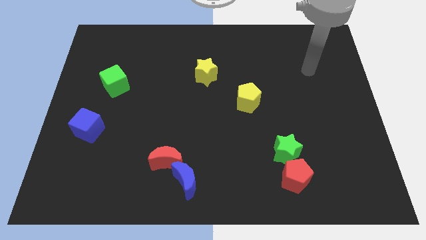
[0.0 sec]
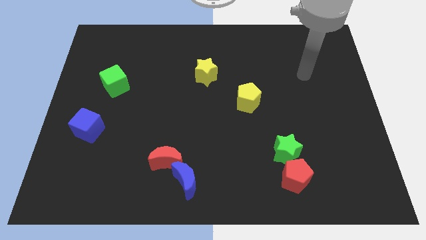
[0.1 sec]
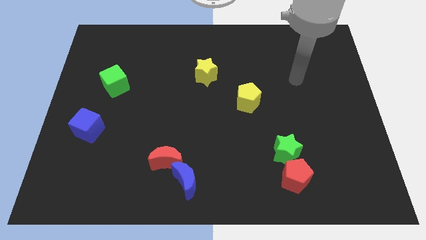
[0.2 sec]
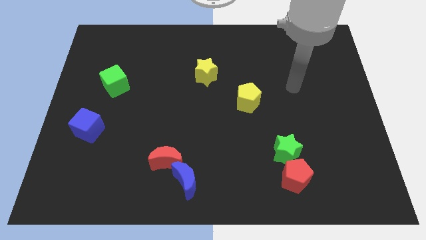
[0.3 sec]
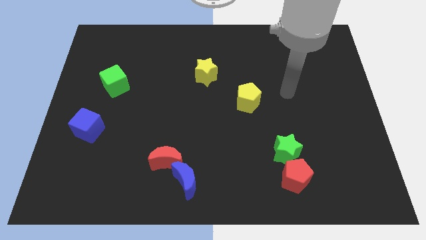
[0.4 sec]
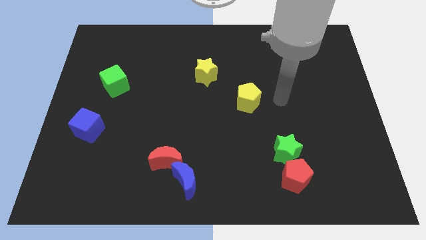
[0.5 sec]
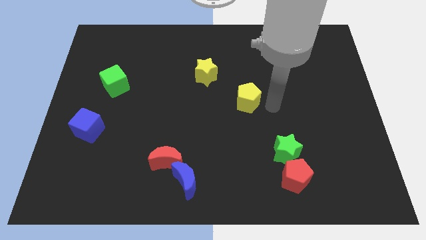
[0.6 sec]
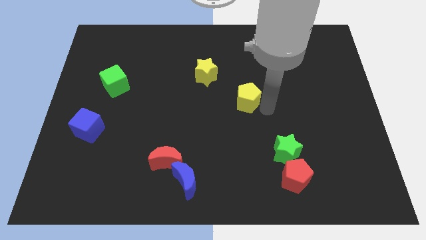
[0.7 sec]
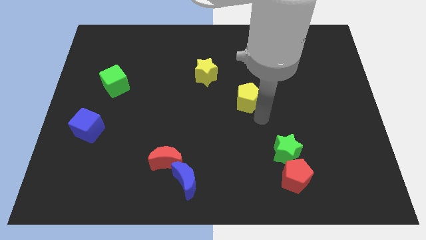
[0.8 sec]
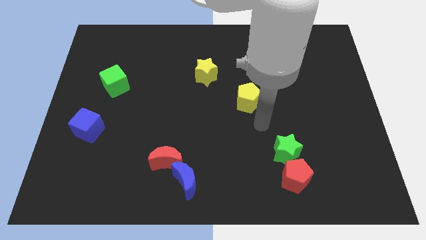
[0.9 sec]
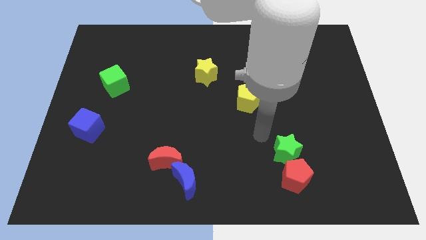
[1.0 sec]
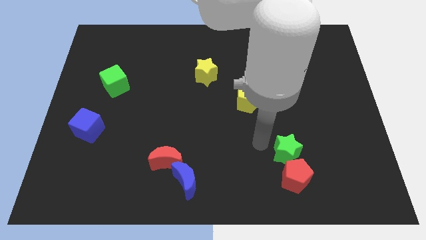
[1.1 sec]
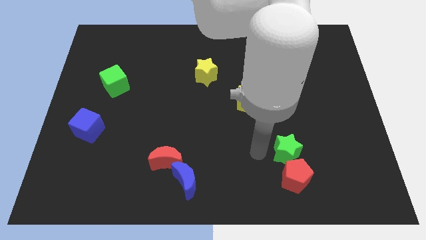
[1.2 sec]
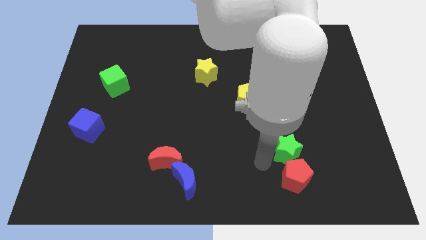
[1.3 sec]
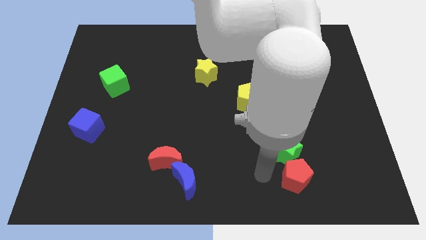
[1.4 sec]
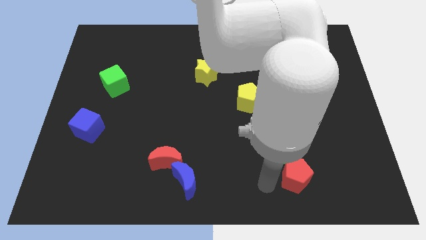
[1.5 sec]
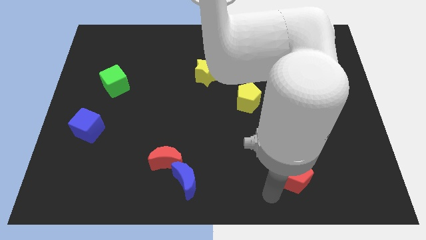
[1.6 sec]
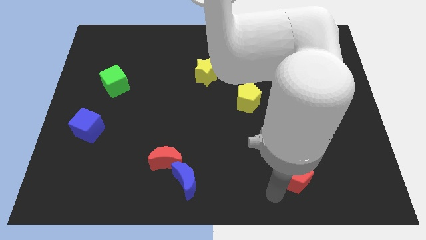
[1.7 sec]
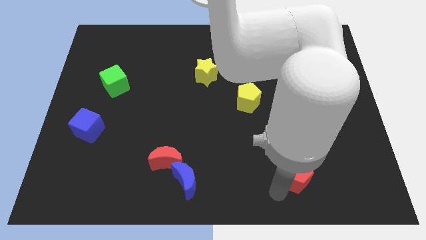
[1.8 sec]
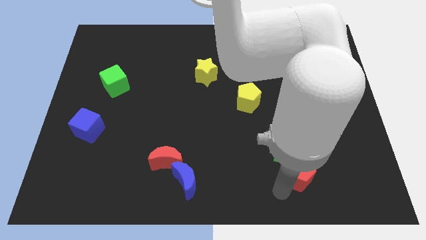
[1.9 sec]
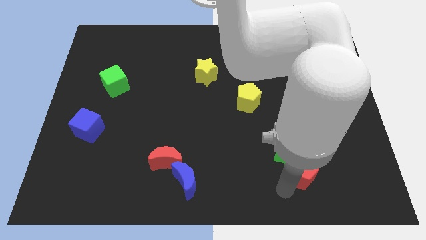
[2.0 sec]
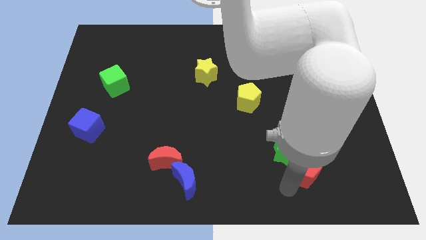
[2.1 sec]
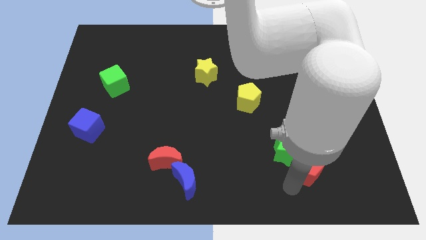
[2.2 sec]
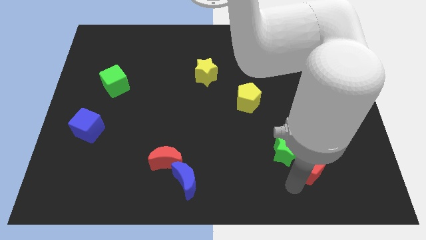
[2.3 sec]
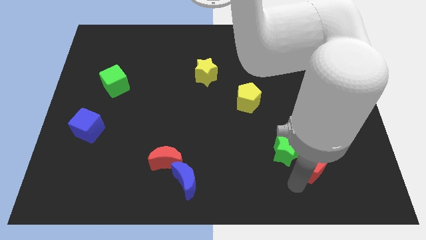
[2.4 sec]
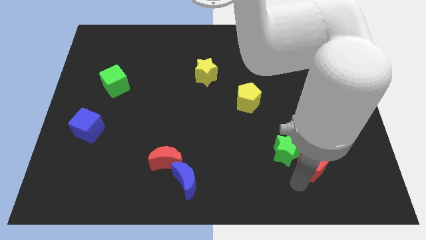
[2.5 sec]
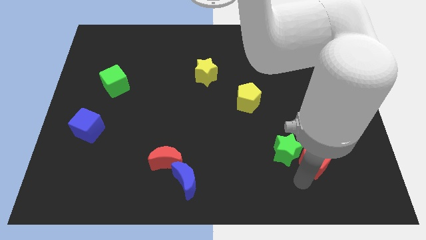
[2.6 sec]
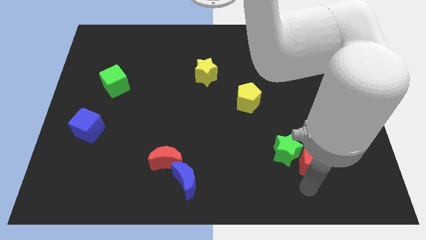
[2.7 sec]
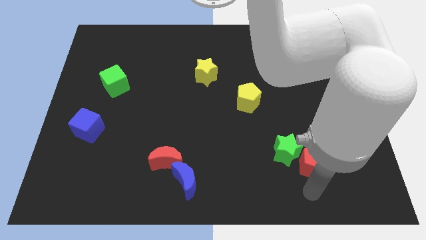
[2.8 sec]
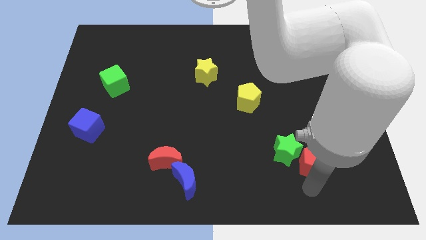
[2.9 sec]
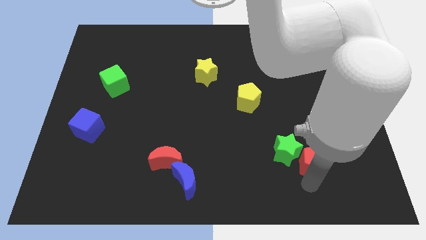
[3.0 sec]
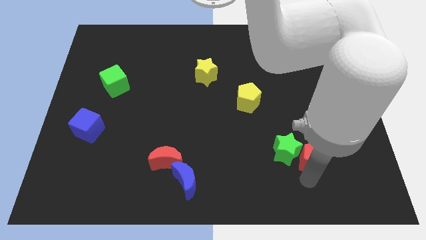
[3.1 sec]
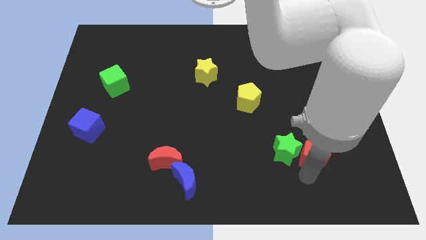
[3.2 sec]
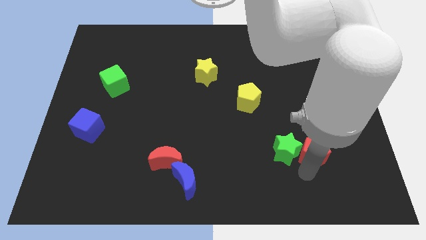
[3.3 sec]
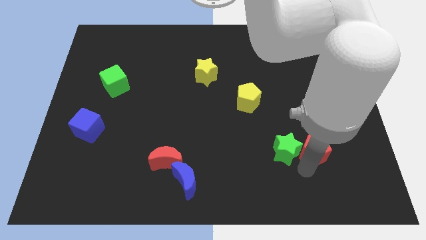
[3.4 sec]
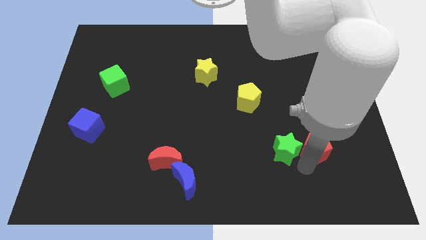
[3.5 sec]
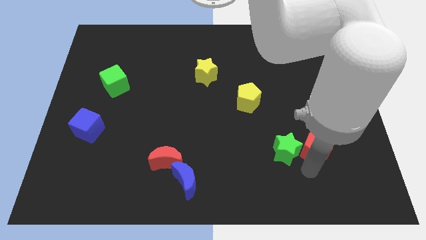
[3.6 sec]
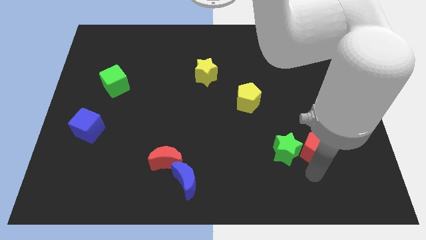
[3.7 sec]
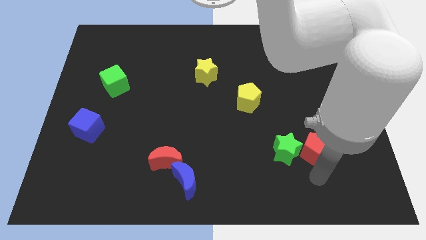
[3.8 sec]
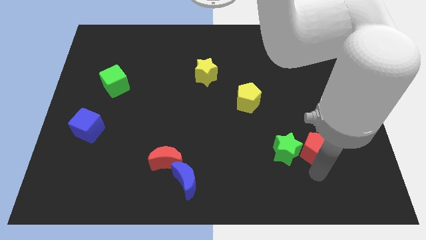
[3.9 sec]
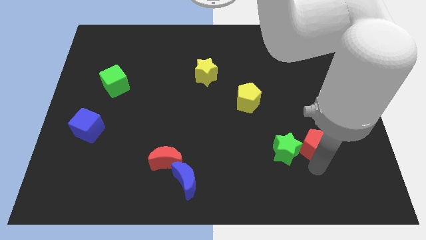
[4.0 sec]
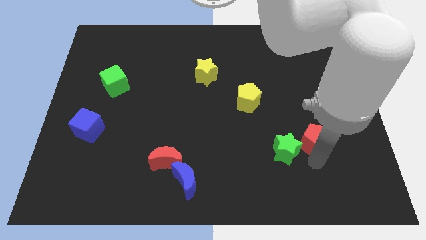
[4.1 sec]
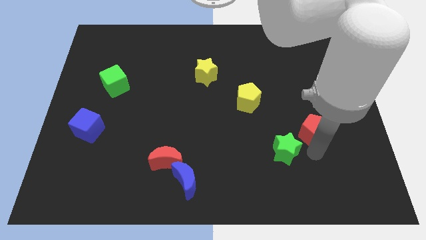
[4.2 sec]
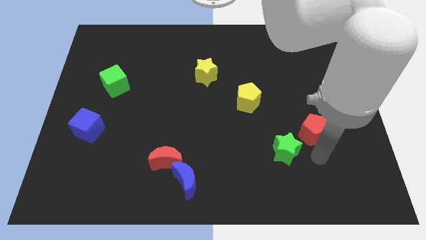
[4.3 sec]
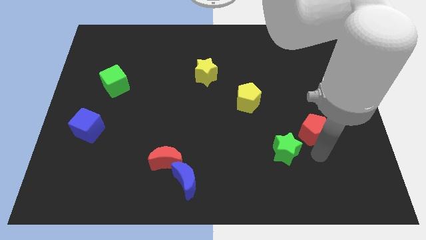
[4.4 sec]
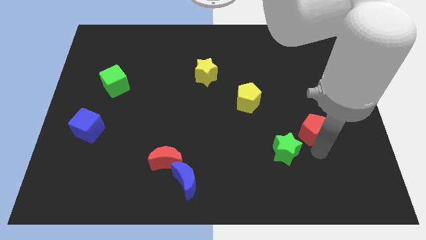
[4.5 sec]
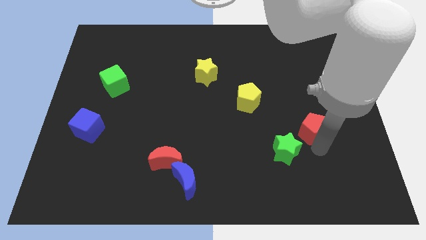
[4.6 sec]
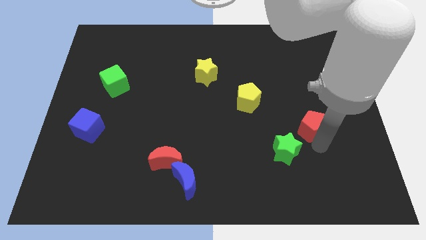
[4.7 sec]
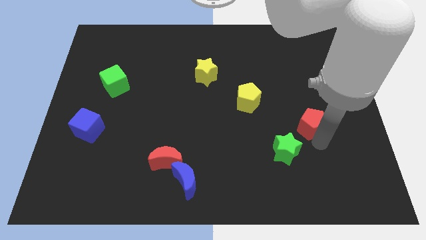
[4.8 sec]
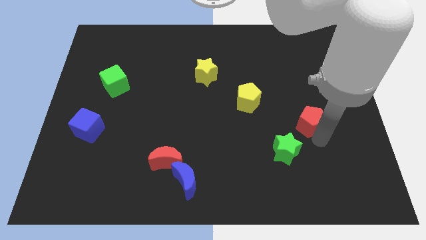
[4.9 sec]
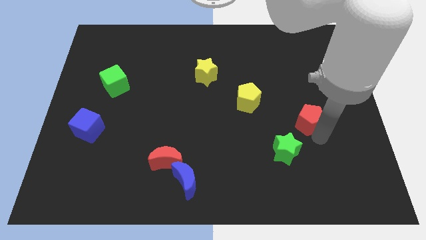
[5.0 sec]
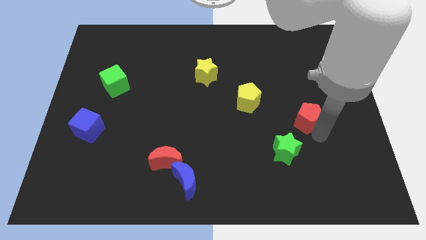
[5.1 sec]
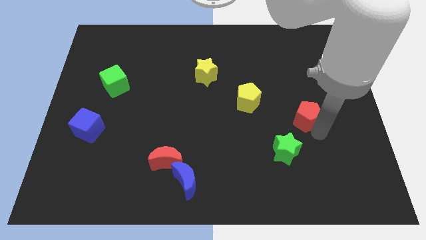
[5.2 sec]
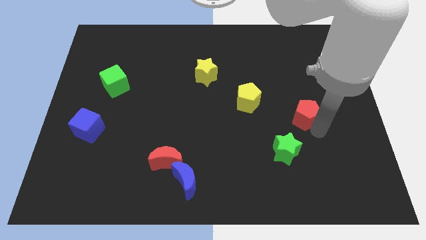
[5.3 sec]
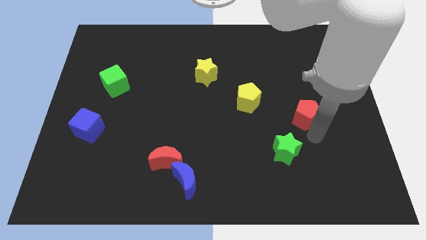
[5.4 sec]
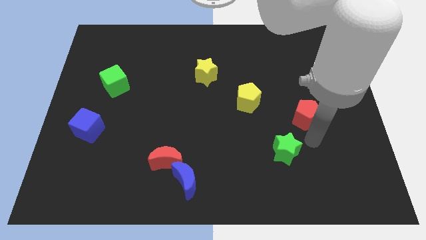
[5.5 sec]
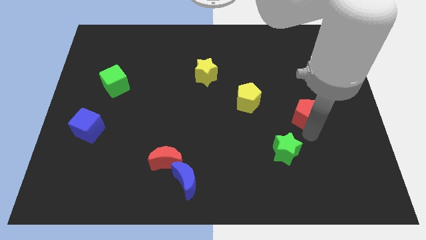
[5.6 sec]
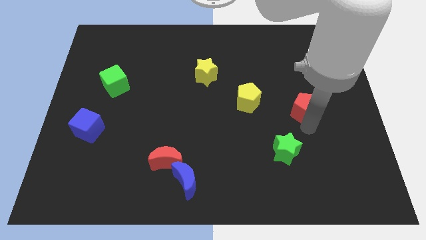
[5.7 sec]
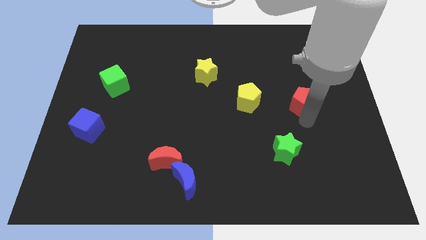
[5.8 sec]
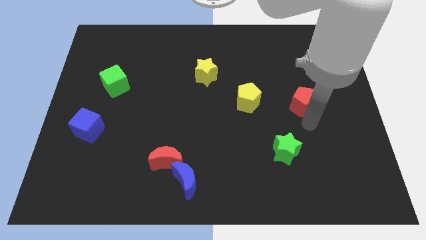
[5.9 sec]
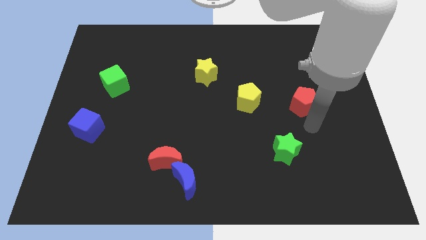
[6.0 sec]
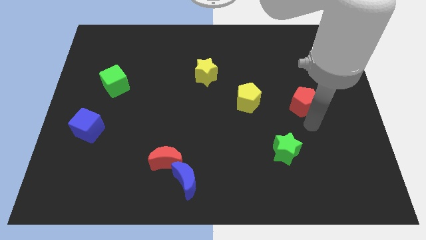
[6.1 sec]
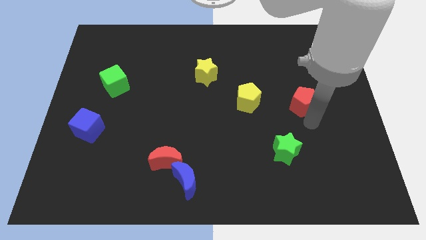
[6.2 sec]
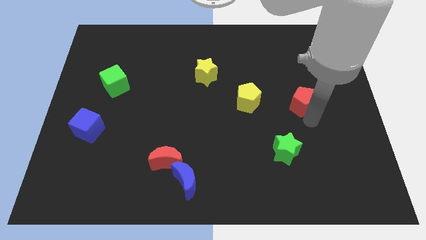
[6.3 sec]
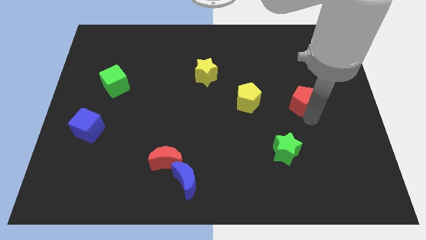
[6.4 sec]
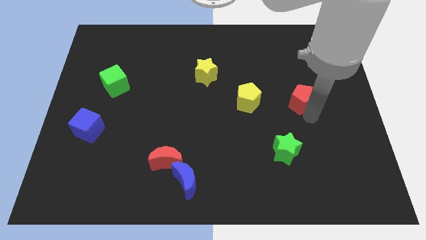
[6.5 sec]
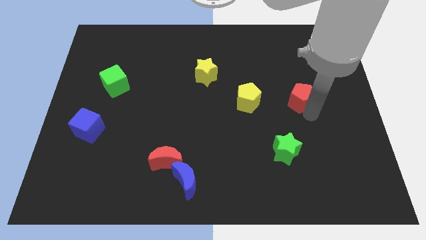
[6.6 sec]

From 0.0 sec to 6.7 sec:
move the red pentagon upwards

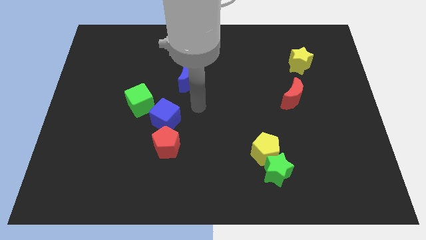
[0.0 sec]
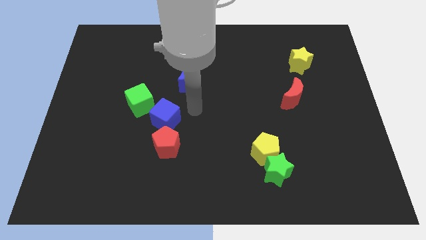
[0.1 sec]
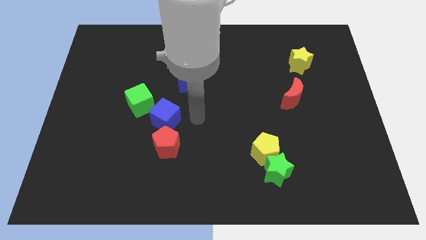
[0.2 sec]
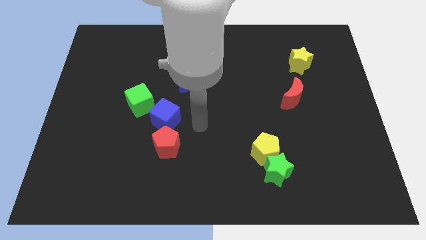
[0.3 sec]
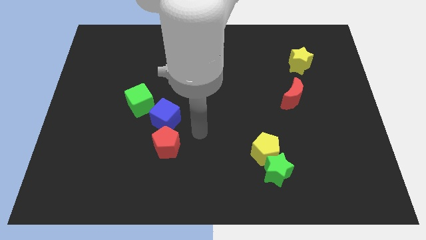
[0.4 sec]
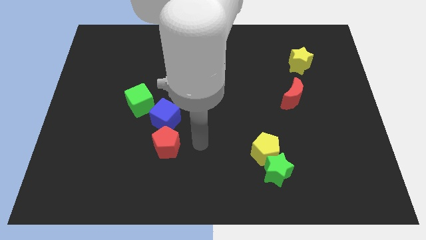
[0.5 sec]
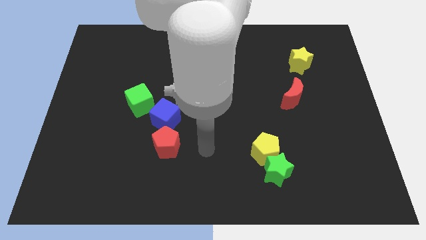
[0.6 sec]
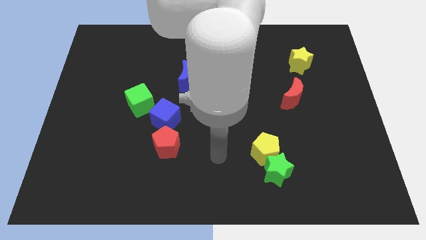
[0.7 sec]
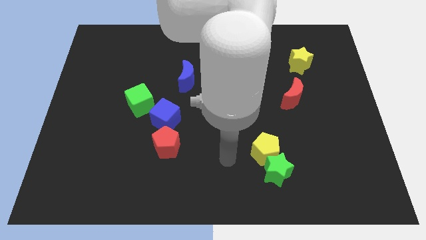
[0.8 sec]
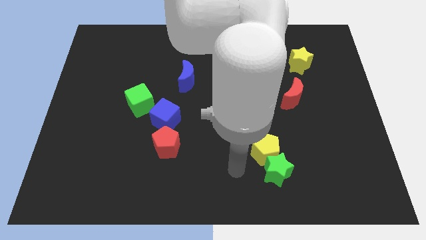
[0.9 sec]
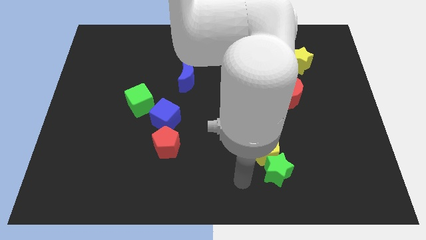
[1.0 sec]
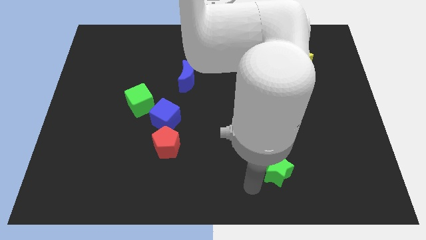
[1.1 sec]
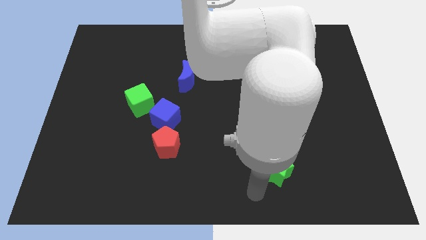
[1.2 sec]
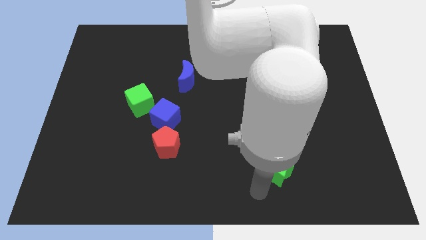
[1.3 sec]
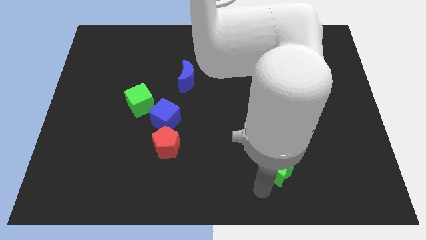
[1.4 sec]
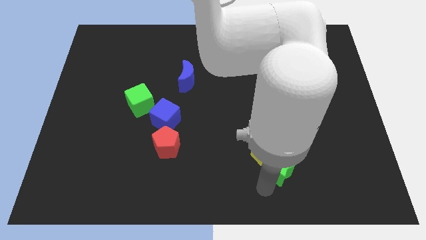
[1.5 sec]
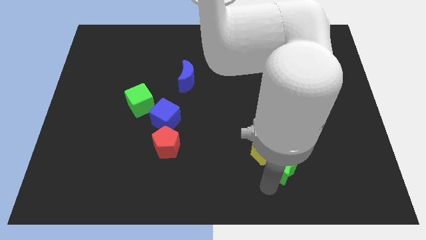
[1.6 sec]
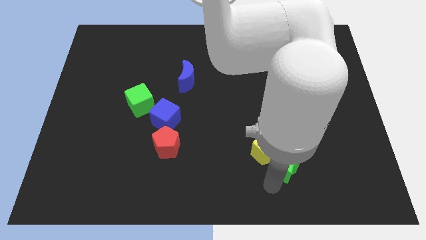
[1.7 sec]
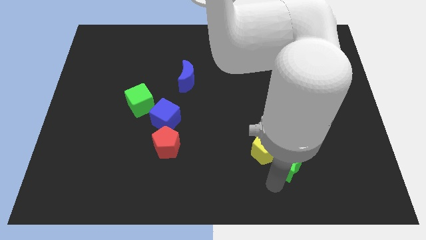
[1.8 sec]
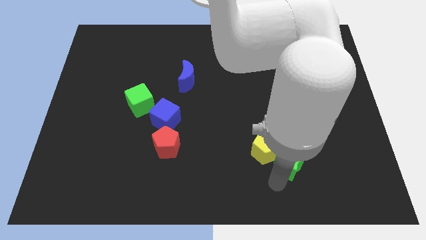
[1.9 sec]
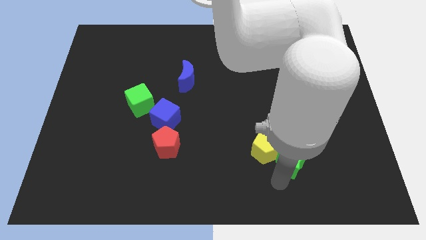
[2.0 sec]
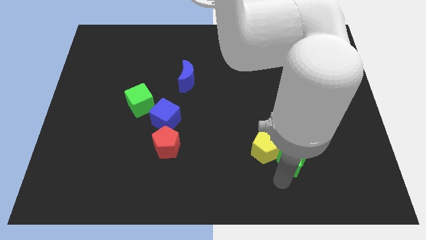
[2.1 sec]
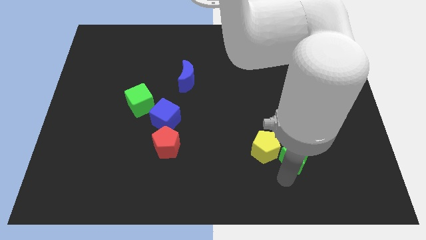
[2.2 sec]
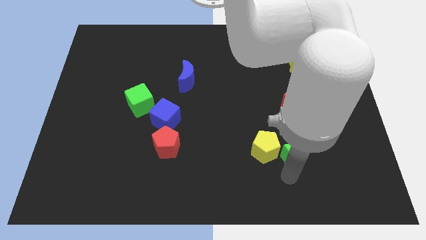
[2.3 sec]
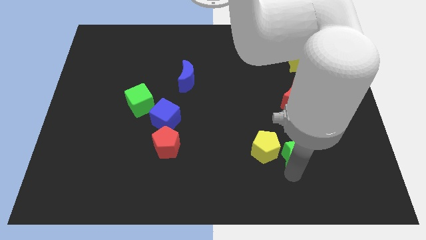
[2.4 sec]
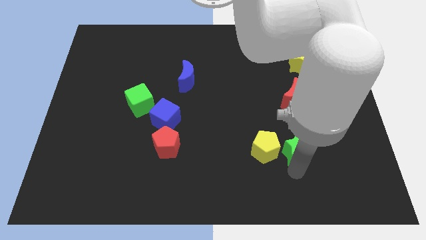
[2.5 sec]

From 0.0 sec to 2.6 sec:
push the green star a little upwards and then right
